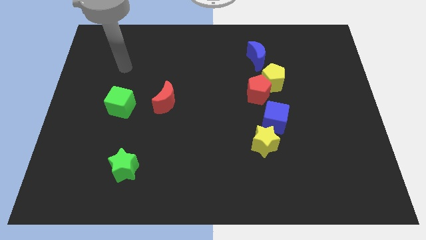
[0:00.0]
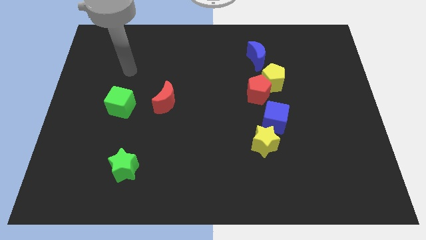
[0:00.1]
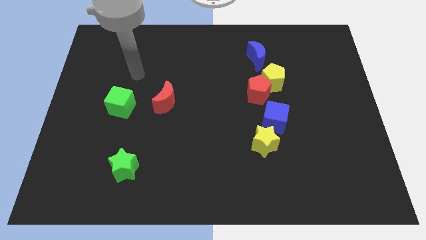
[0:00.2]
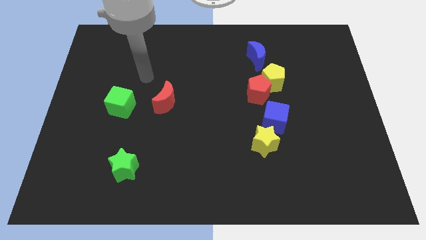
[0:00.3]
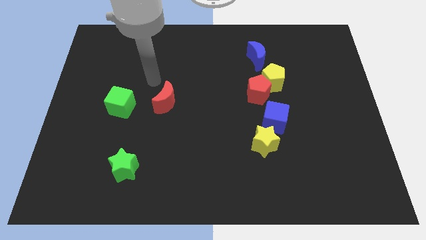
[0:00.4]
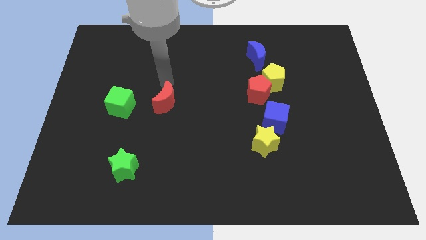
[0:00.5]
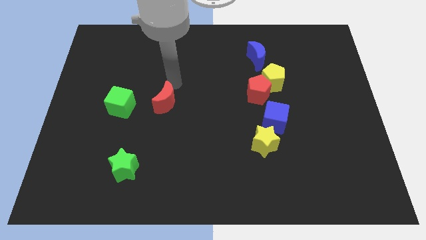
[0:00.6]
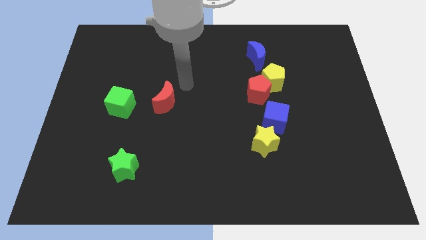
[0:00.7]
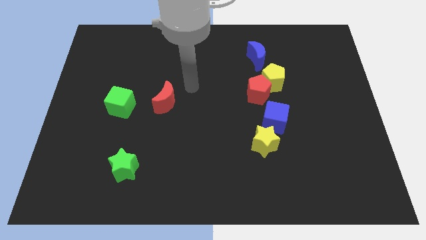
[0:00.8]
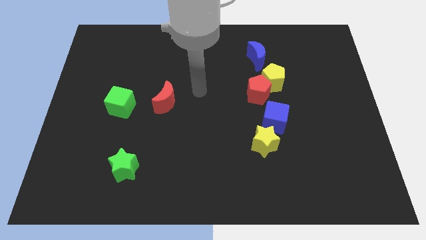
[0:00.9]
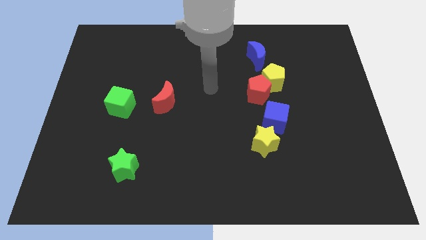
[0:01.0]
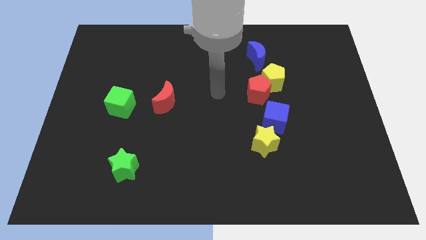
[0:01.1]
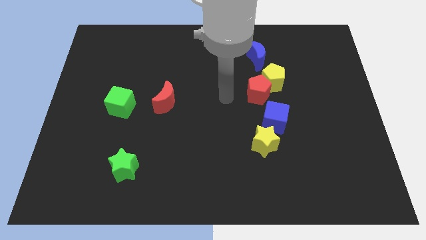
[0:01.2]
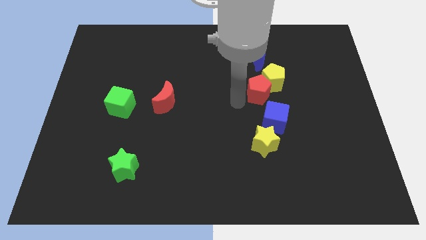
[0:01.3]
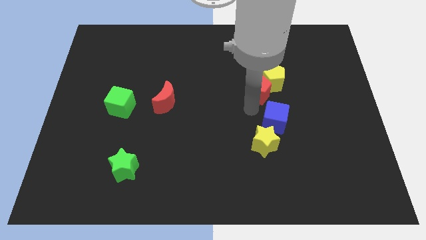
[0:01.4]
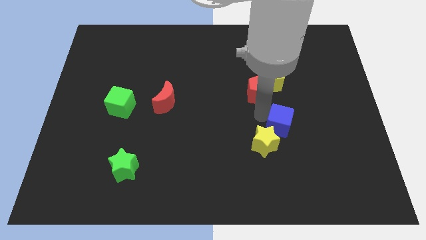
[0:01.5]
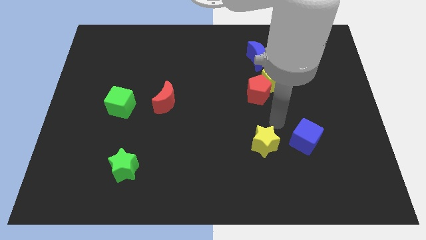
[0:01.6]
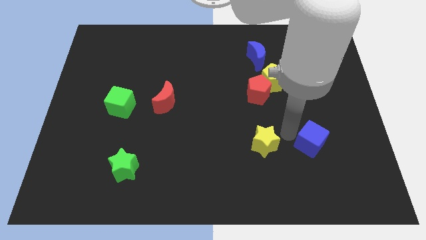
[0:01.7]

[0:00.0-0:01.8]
pull the yellow star apart from the blue cube

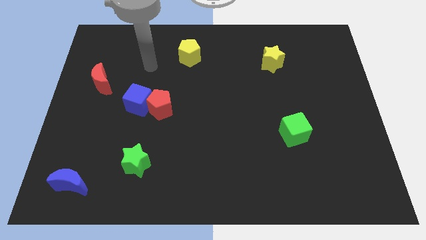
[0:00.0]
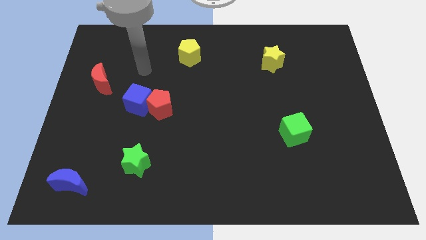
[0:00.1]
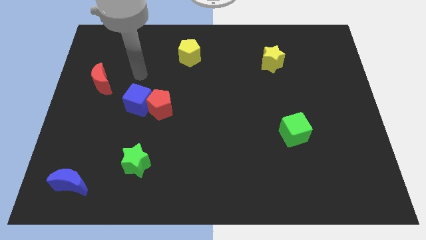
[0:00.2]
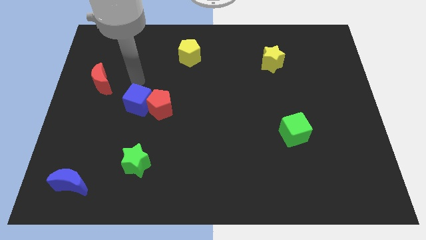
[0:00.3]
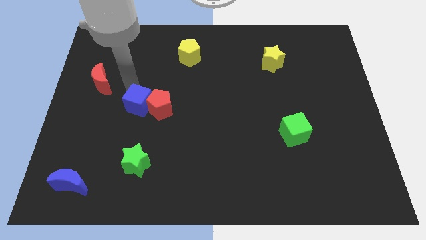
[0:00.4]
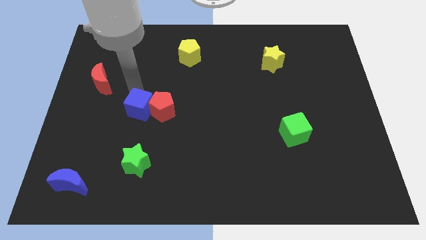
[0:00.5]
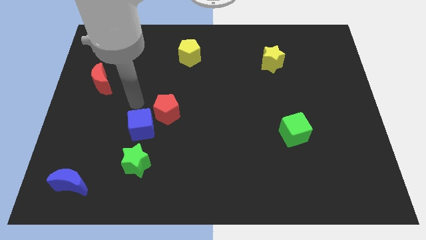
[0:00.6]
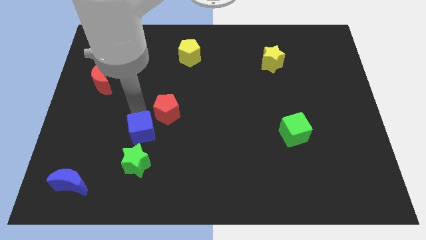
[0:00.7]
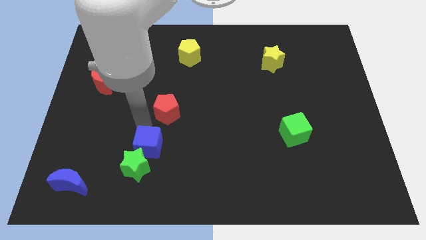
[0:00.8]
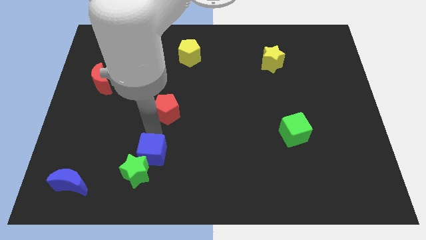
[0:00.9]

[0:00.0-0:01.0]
pull the red pentagon apart from the blue cube

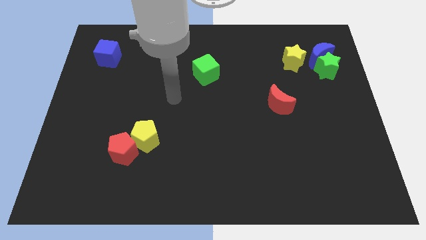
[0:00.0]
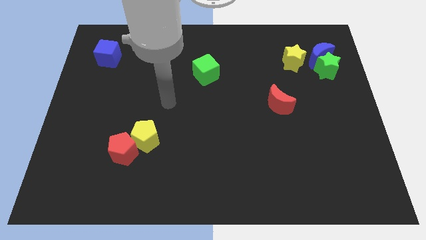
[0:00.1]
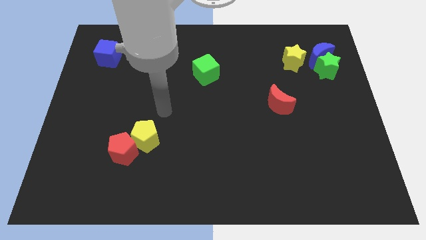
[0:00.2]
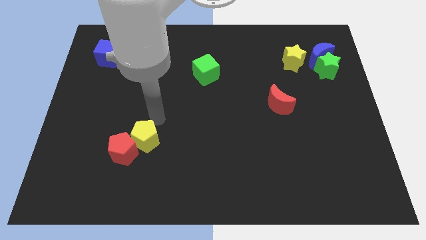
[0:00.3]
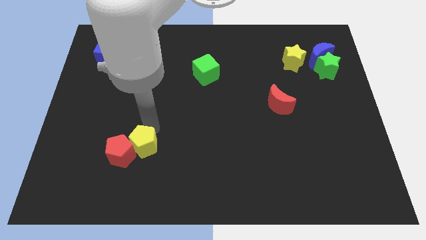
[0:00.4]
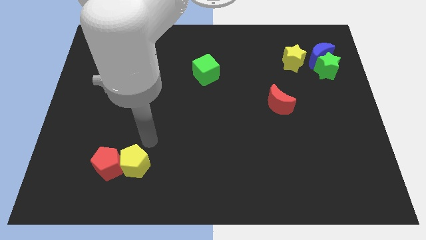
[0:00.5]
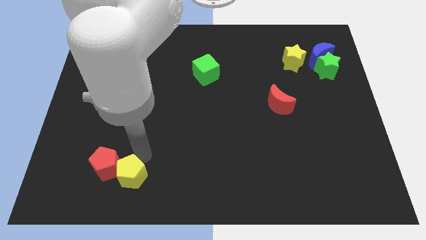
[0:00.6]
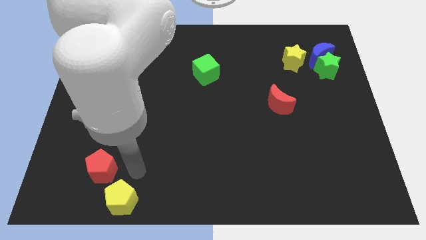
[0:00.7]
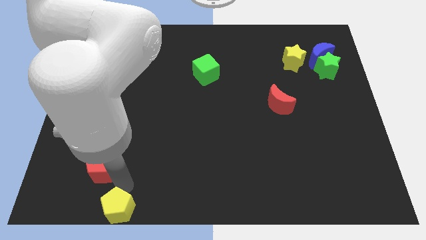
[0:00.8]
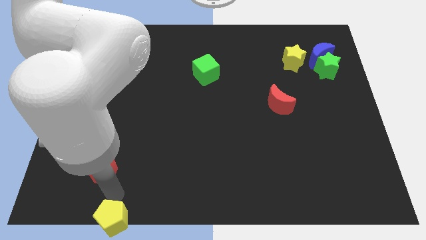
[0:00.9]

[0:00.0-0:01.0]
separate the red pentagon from the yellow pentagon

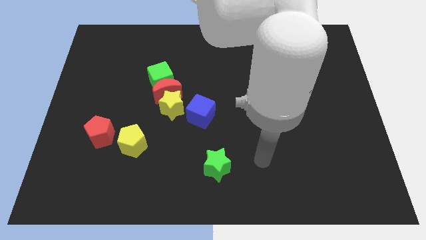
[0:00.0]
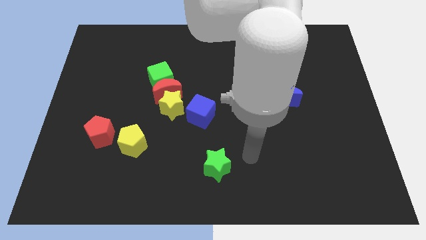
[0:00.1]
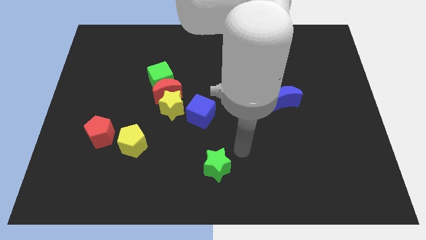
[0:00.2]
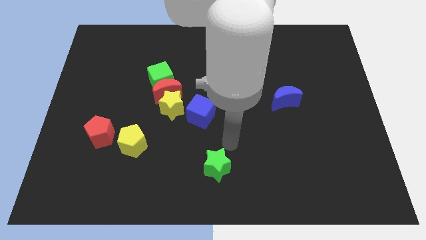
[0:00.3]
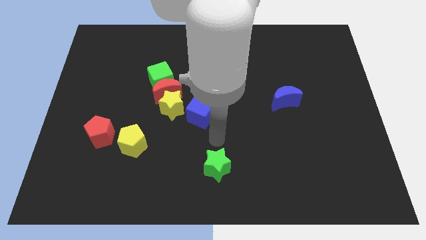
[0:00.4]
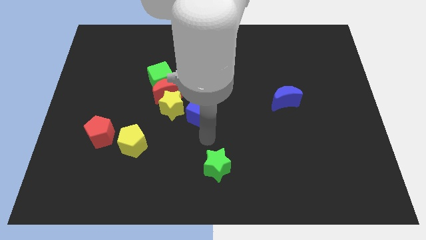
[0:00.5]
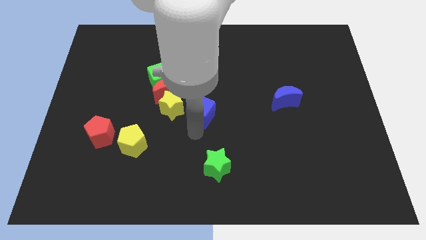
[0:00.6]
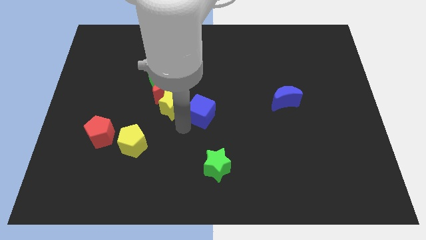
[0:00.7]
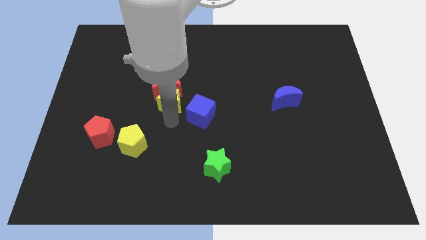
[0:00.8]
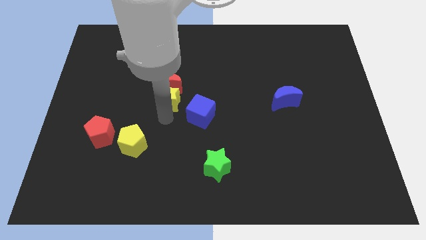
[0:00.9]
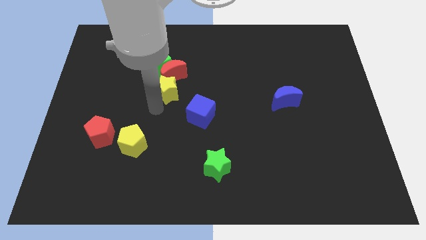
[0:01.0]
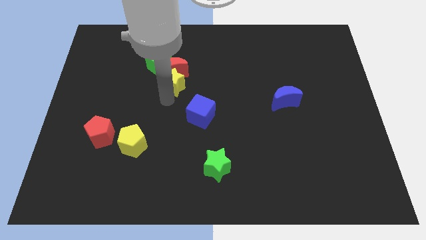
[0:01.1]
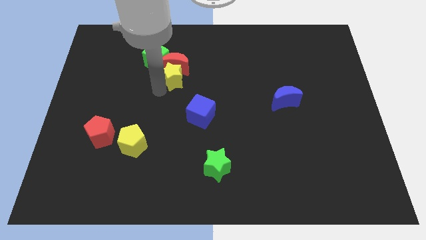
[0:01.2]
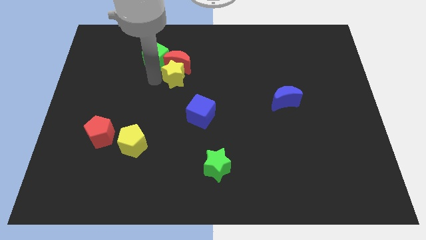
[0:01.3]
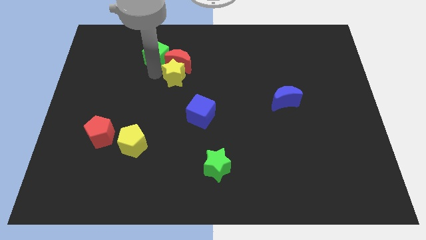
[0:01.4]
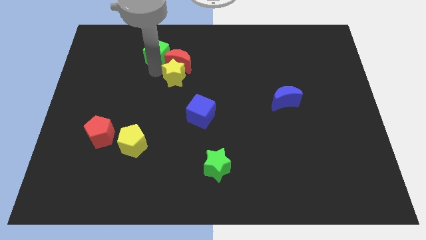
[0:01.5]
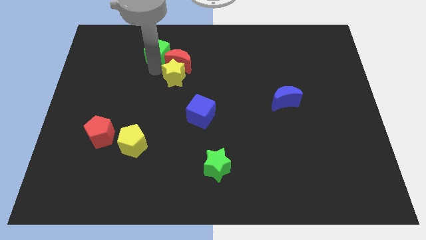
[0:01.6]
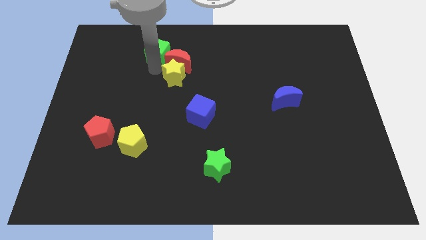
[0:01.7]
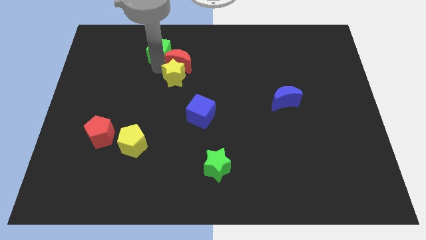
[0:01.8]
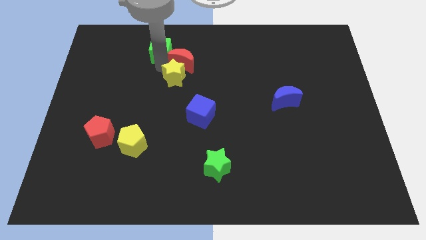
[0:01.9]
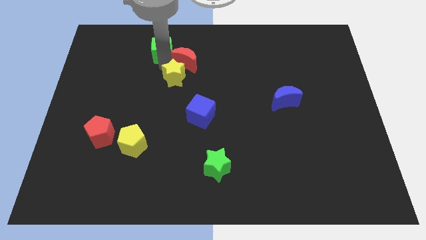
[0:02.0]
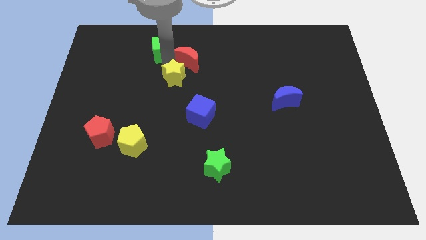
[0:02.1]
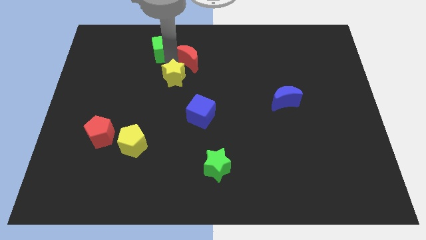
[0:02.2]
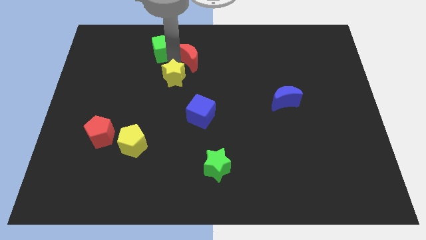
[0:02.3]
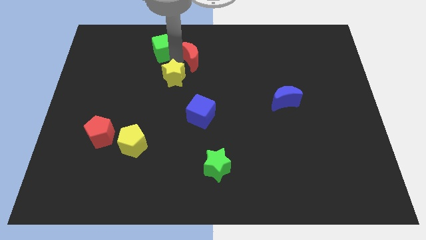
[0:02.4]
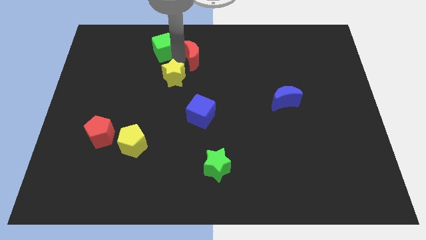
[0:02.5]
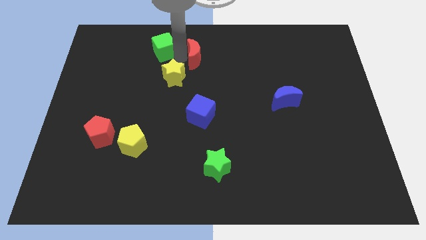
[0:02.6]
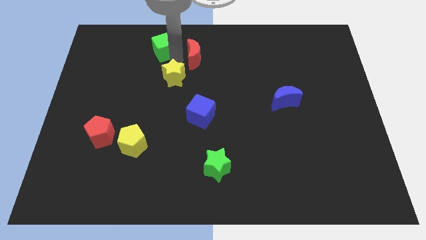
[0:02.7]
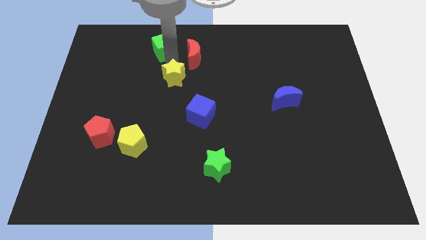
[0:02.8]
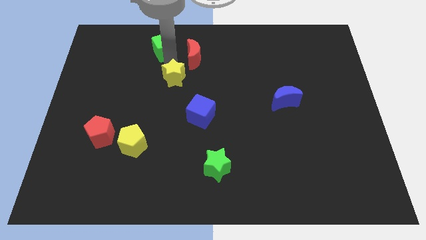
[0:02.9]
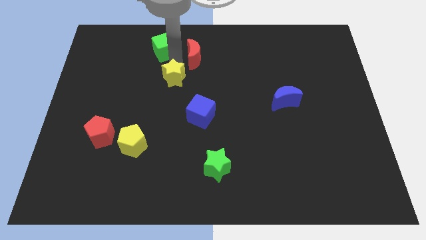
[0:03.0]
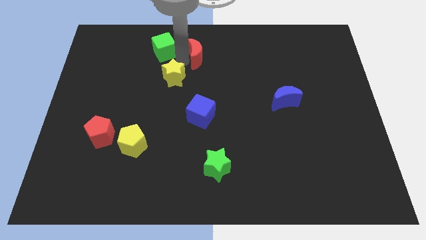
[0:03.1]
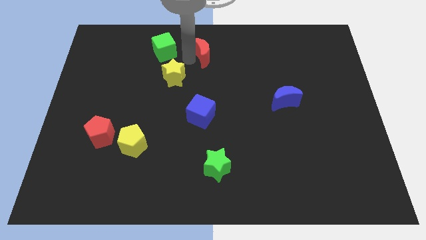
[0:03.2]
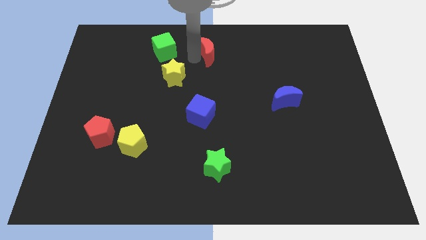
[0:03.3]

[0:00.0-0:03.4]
separate the red moon from the green cube and yellow star

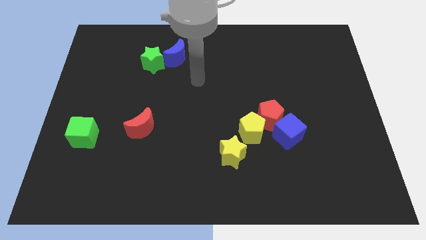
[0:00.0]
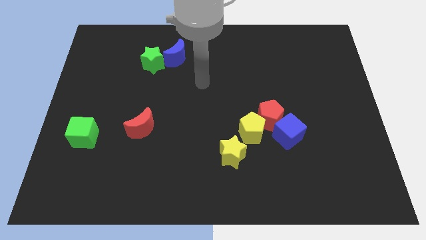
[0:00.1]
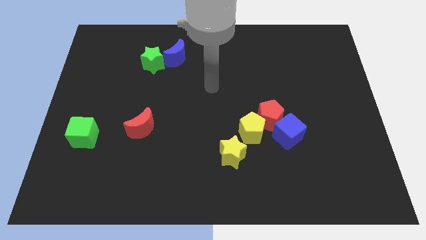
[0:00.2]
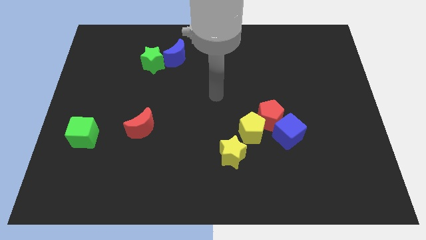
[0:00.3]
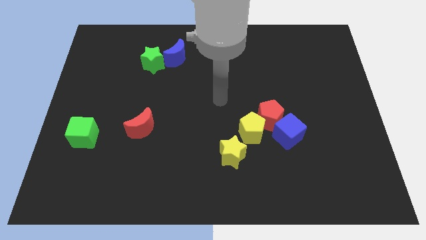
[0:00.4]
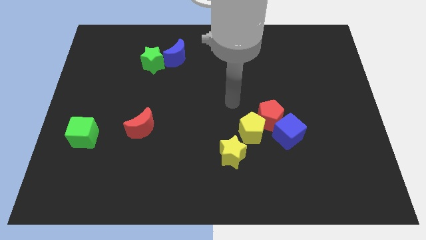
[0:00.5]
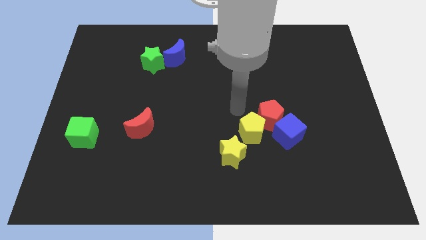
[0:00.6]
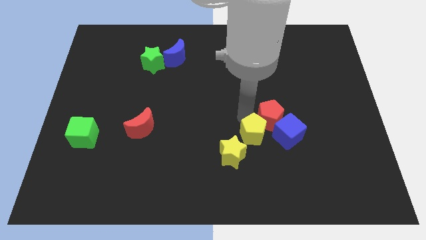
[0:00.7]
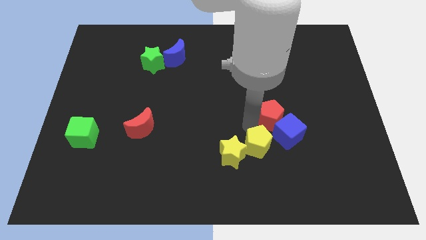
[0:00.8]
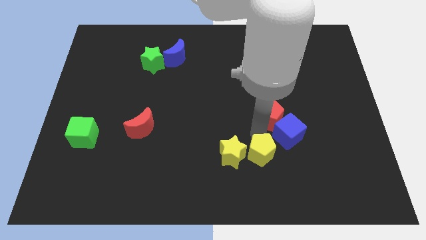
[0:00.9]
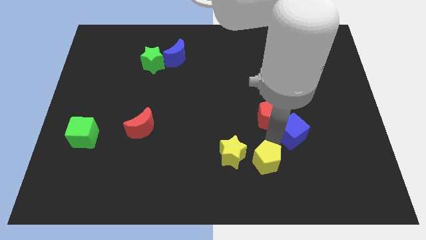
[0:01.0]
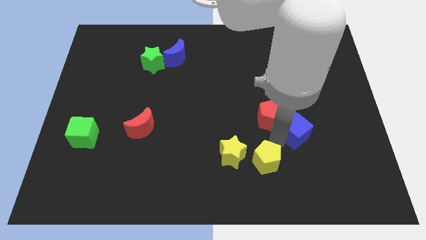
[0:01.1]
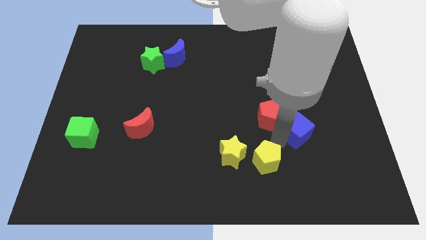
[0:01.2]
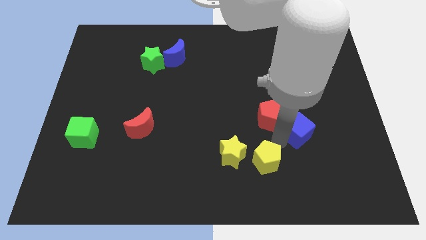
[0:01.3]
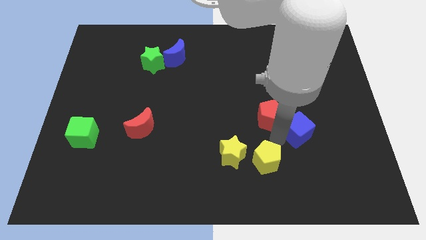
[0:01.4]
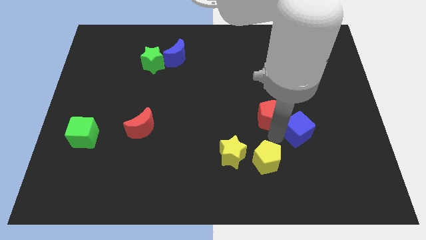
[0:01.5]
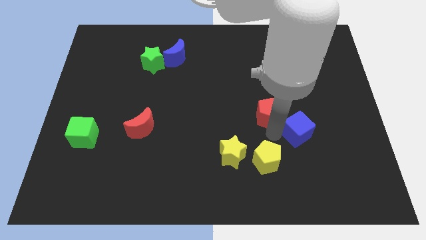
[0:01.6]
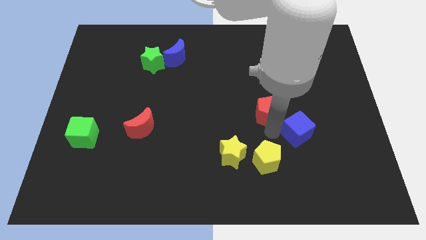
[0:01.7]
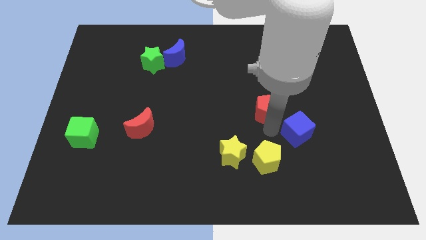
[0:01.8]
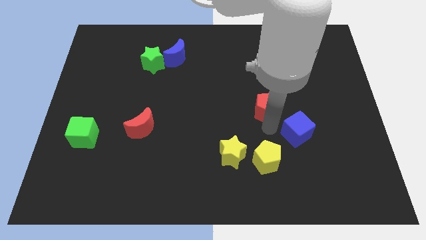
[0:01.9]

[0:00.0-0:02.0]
move the red pentagon away from the blue cube and yellow pentagon
